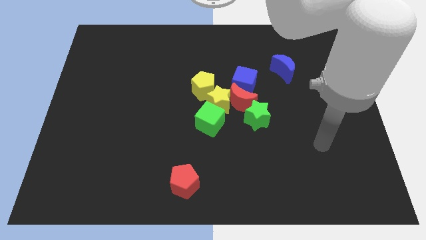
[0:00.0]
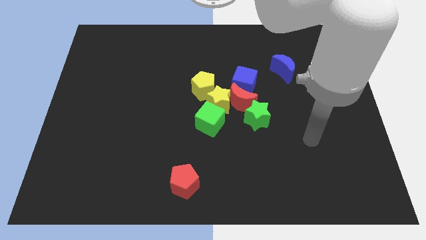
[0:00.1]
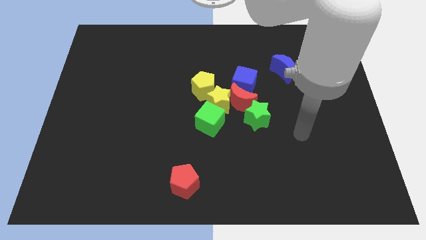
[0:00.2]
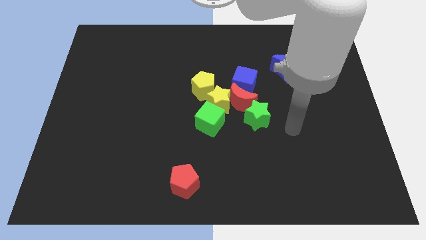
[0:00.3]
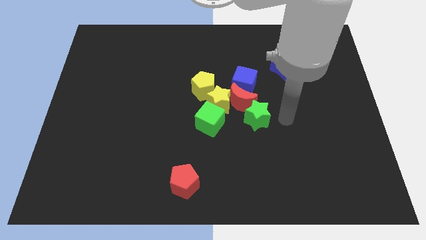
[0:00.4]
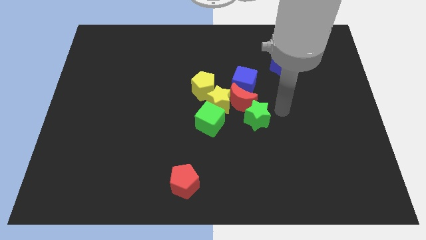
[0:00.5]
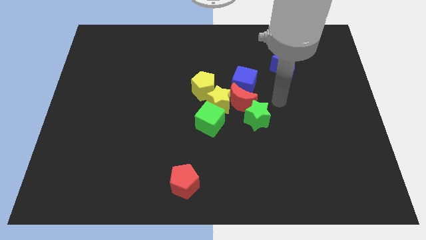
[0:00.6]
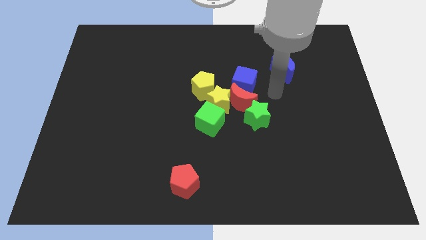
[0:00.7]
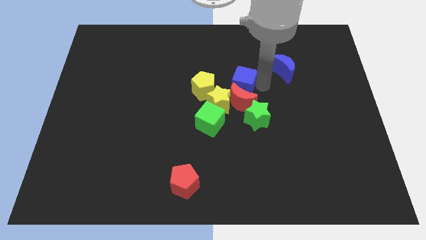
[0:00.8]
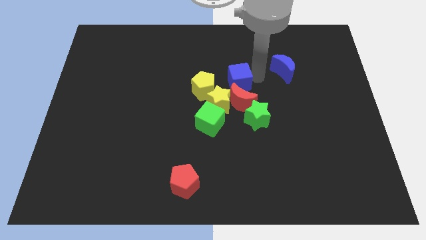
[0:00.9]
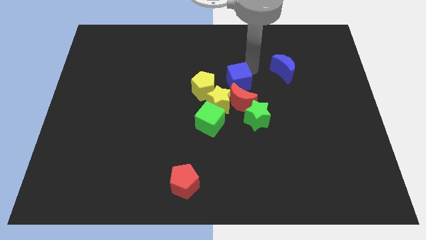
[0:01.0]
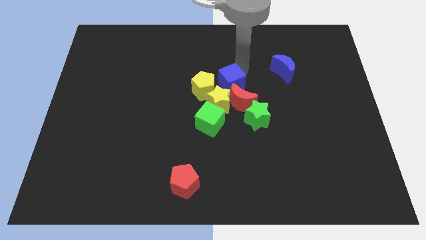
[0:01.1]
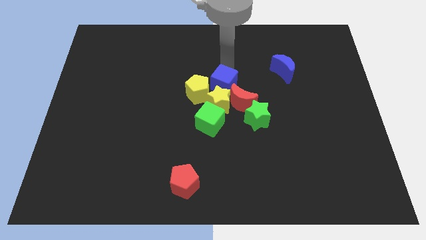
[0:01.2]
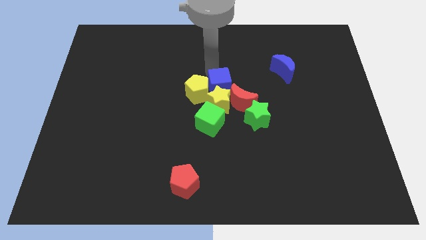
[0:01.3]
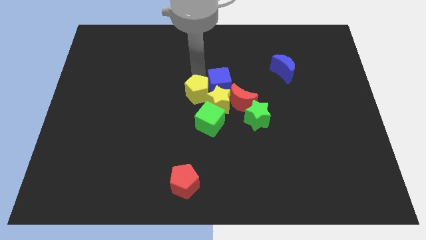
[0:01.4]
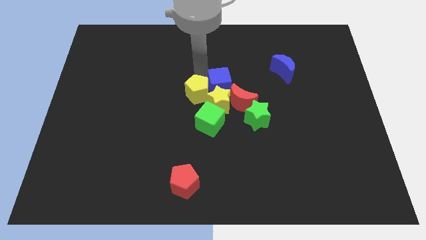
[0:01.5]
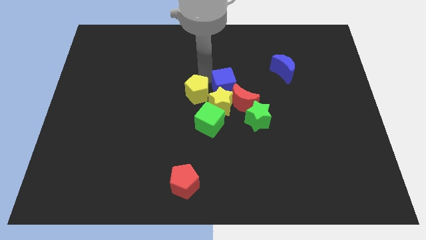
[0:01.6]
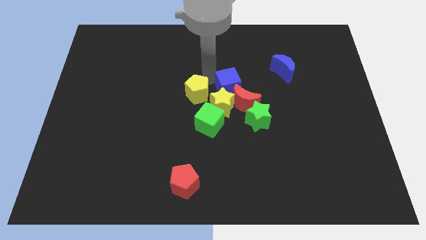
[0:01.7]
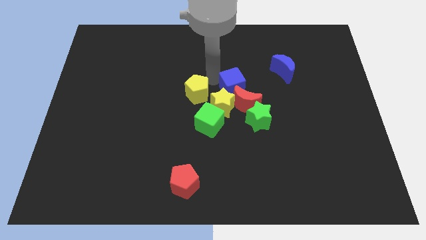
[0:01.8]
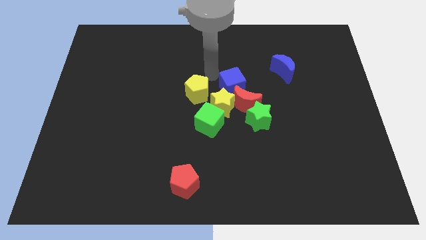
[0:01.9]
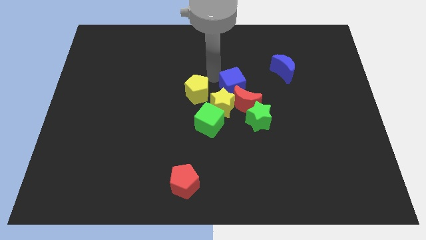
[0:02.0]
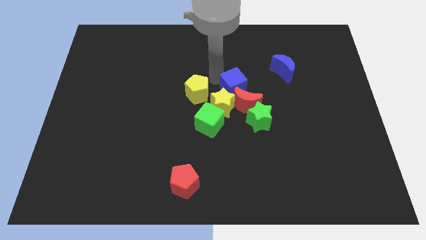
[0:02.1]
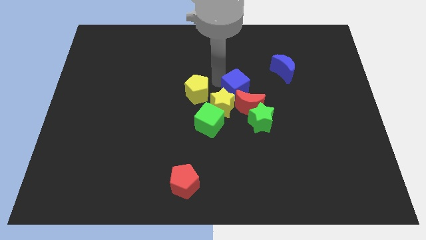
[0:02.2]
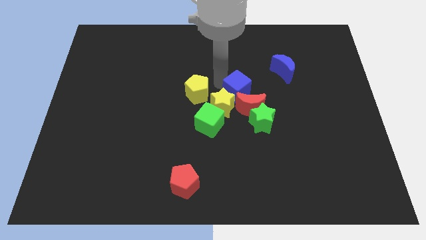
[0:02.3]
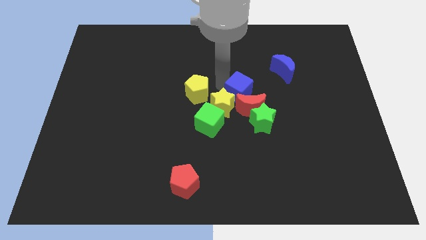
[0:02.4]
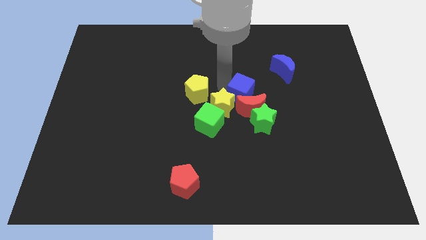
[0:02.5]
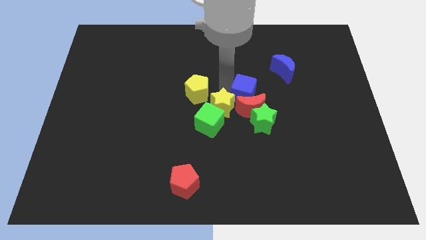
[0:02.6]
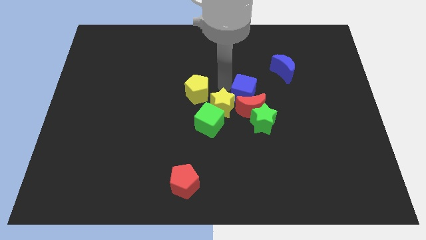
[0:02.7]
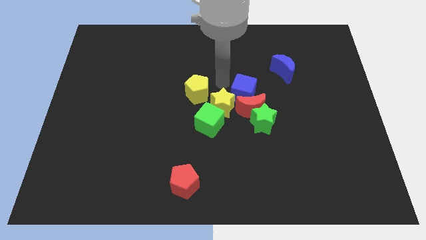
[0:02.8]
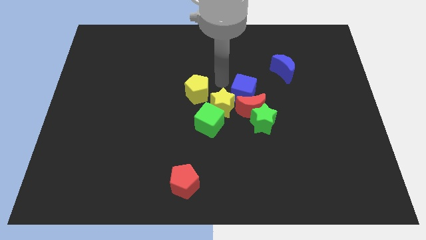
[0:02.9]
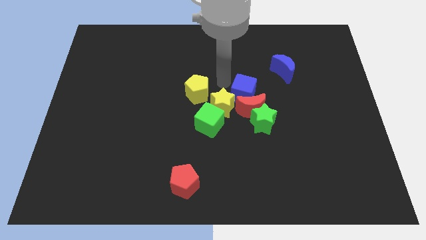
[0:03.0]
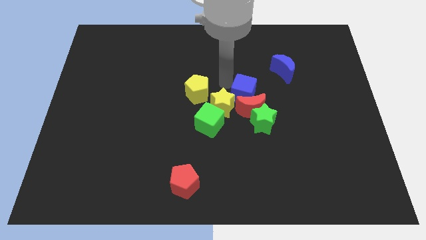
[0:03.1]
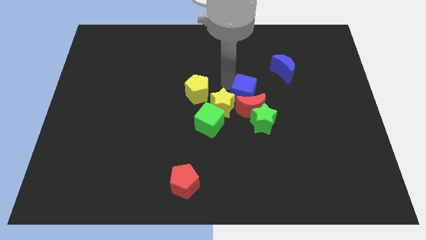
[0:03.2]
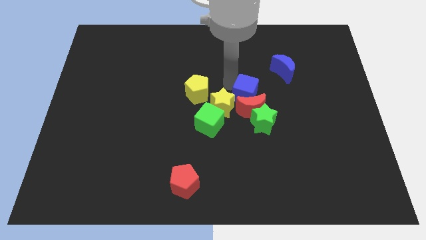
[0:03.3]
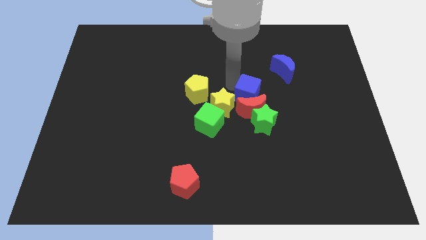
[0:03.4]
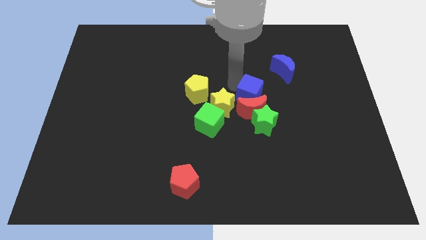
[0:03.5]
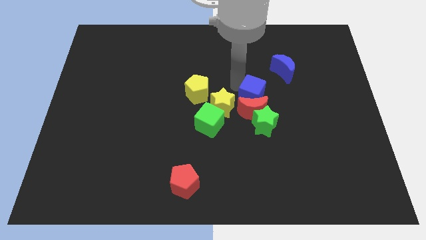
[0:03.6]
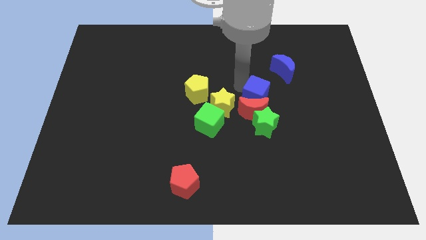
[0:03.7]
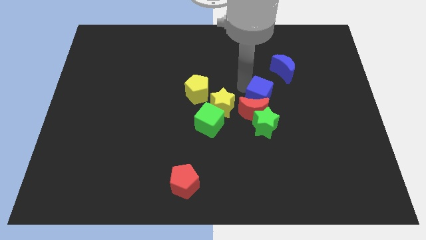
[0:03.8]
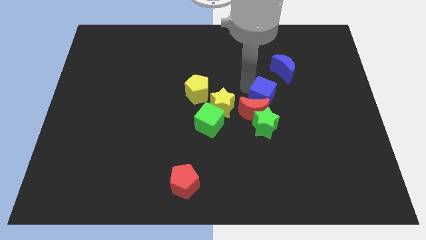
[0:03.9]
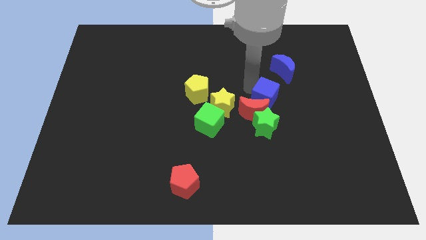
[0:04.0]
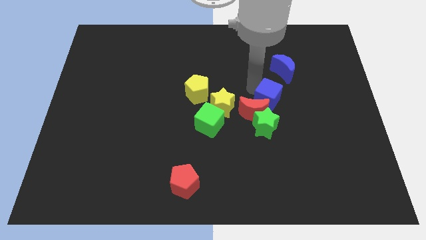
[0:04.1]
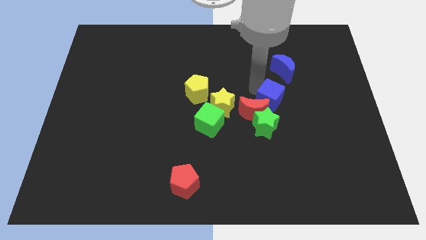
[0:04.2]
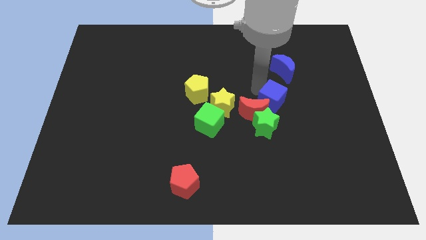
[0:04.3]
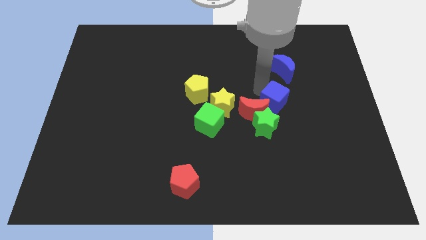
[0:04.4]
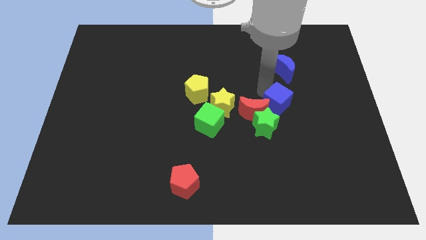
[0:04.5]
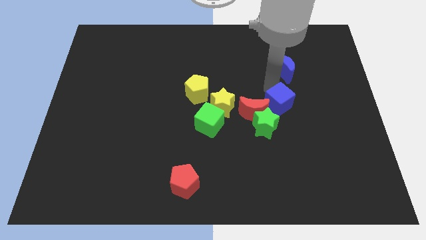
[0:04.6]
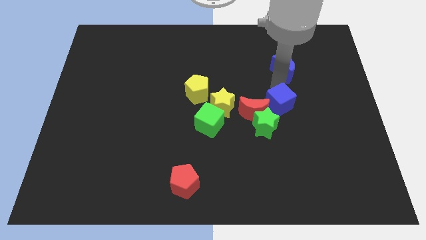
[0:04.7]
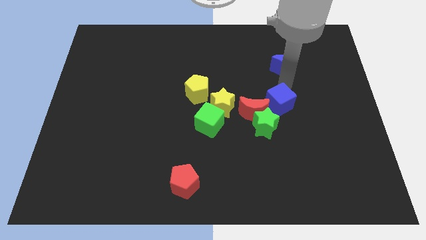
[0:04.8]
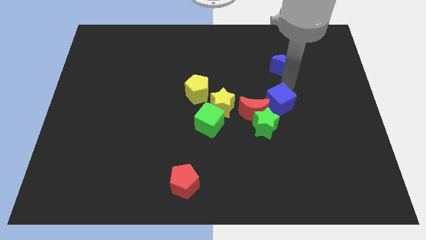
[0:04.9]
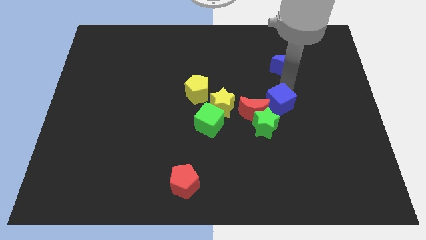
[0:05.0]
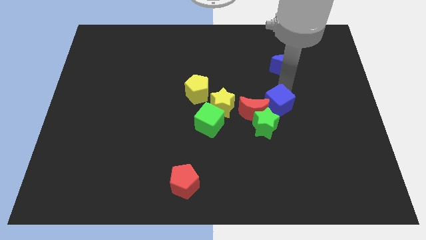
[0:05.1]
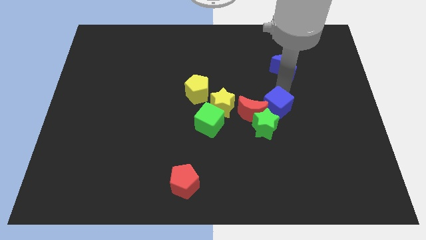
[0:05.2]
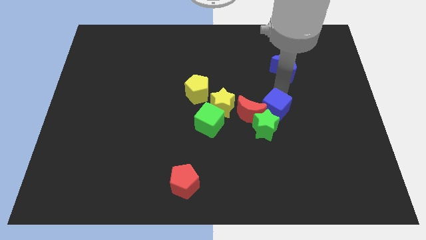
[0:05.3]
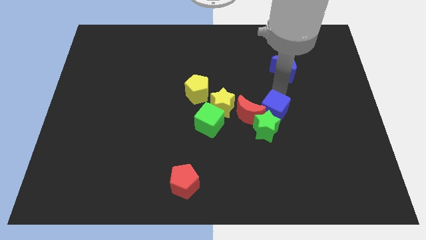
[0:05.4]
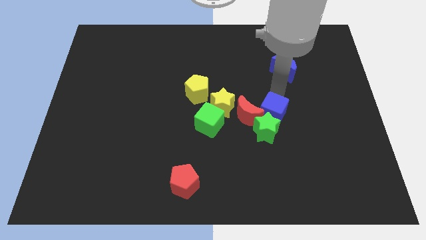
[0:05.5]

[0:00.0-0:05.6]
push the blue cube downwards a little bit

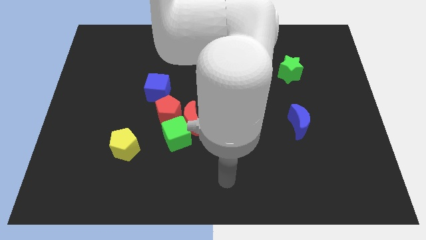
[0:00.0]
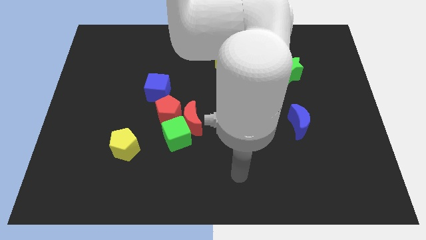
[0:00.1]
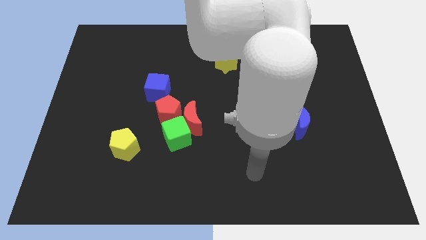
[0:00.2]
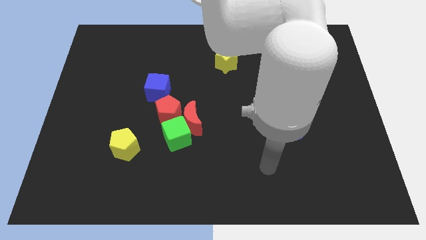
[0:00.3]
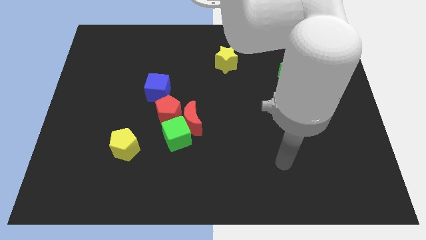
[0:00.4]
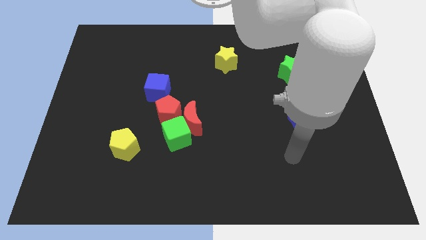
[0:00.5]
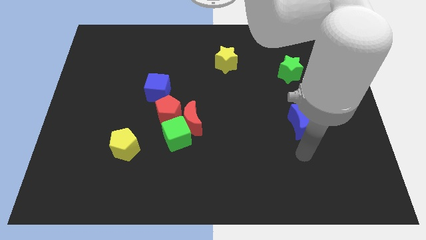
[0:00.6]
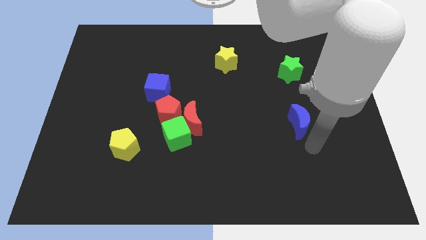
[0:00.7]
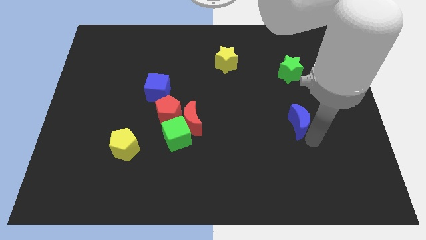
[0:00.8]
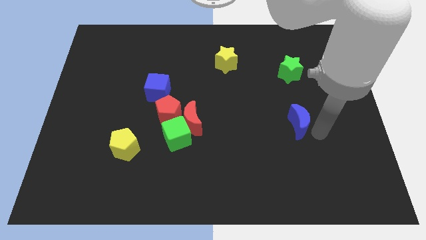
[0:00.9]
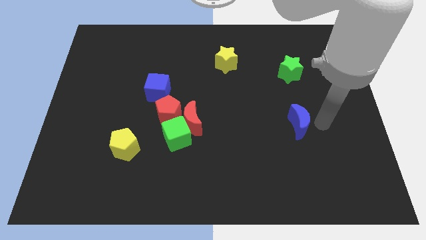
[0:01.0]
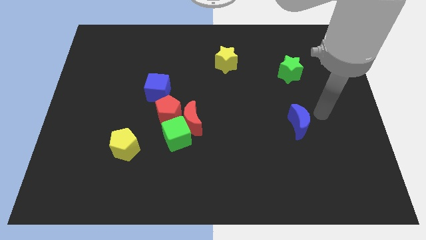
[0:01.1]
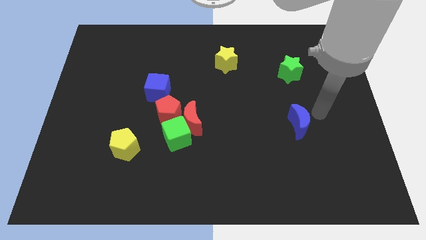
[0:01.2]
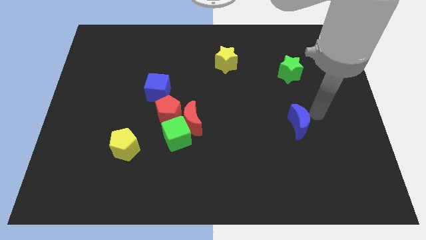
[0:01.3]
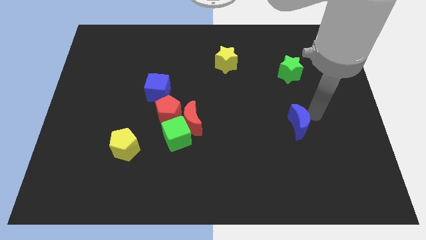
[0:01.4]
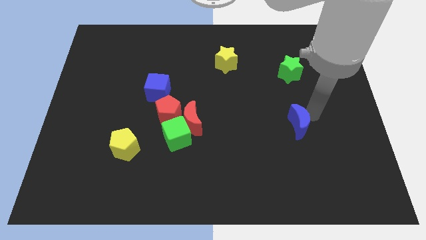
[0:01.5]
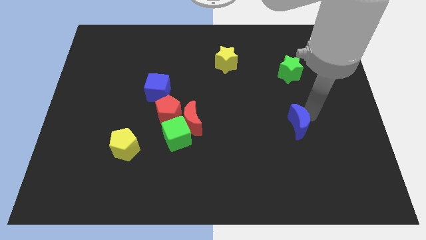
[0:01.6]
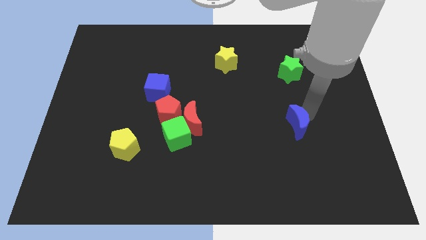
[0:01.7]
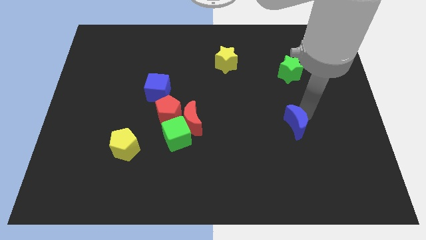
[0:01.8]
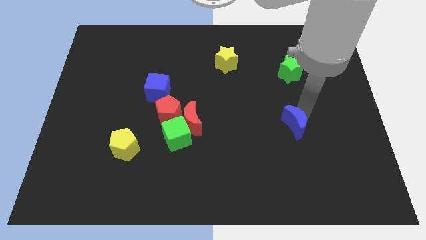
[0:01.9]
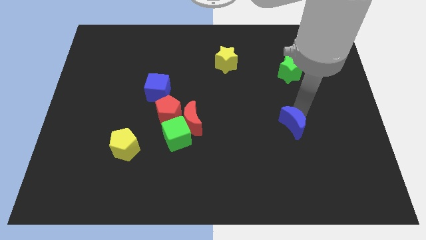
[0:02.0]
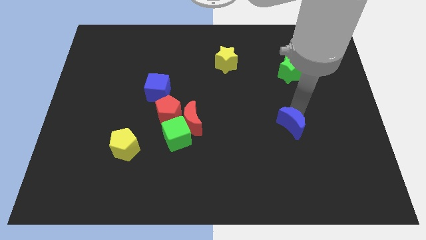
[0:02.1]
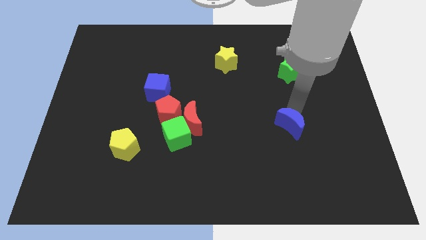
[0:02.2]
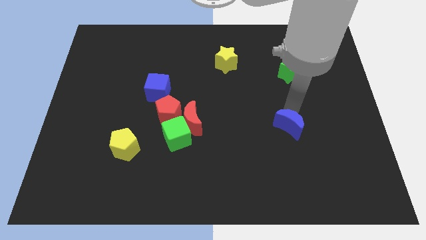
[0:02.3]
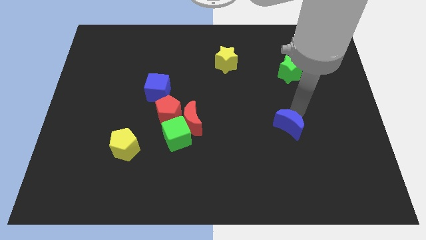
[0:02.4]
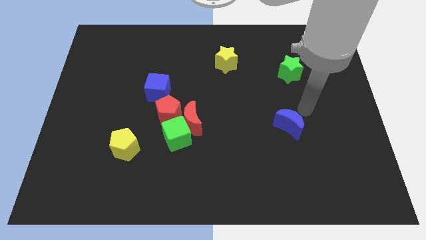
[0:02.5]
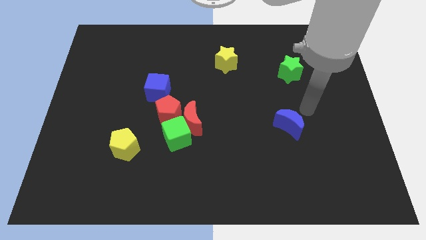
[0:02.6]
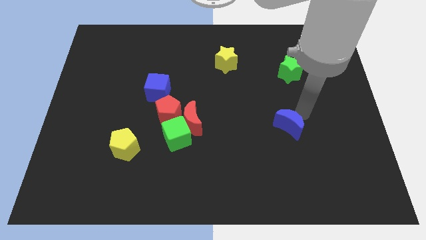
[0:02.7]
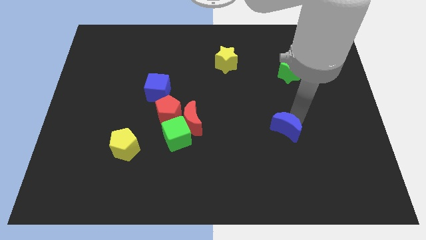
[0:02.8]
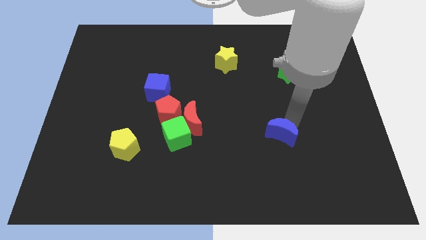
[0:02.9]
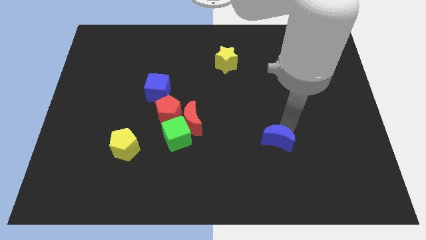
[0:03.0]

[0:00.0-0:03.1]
push the blue moon a little diagonally downwards and left
